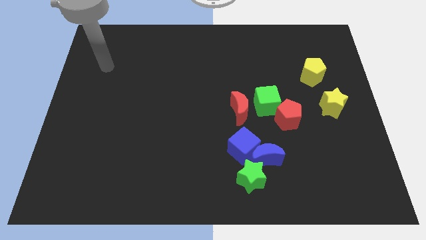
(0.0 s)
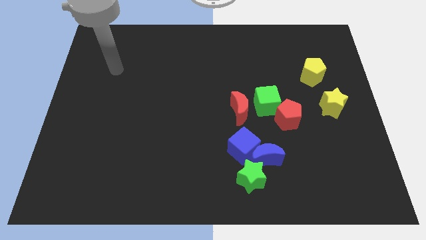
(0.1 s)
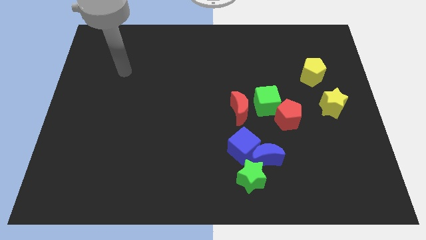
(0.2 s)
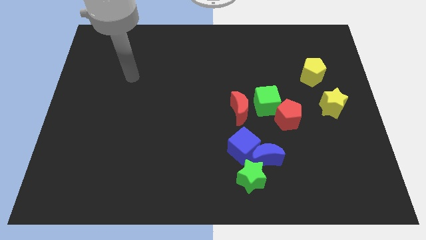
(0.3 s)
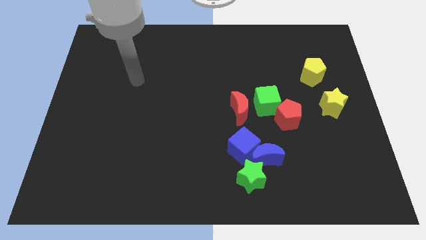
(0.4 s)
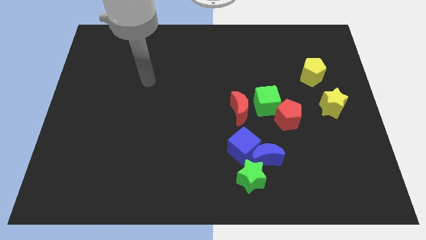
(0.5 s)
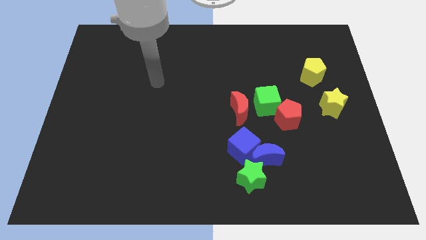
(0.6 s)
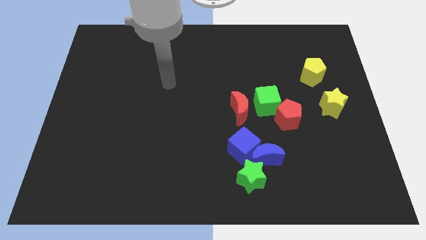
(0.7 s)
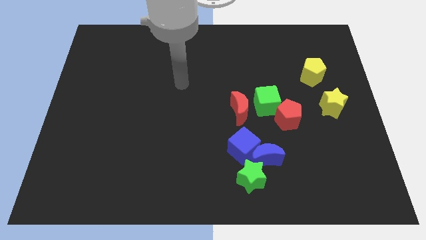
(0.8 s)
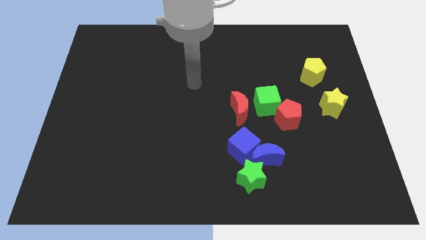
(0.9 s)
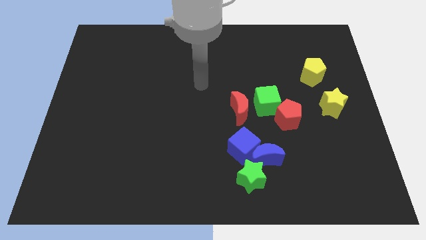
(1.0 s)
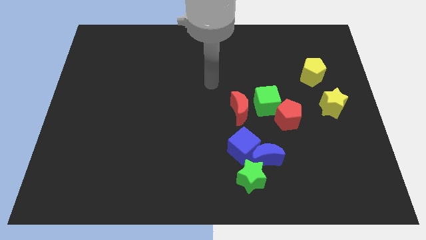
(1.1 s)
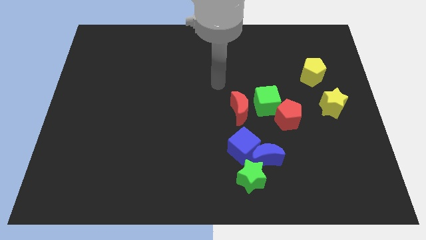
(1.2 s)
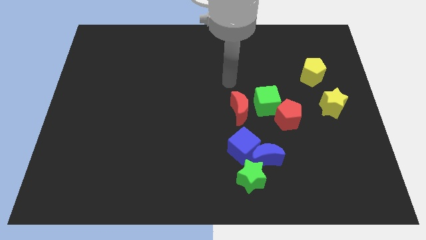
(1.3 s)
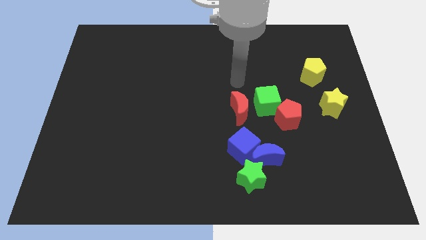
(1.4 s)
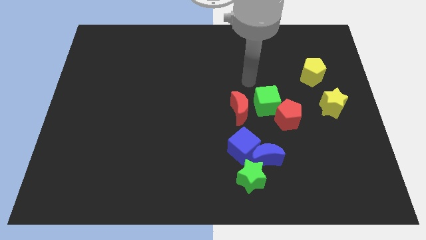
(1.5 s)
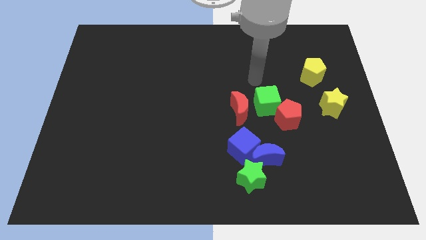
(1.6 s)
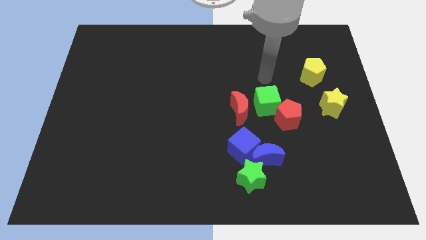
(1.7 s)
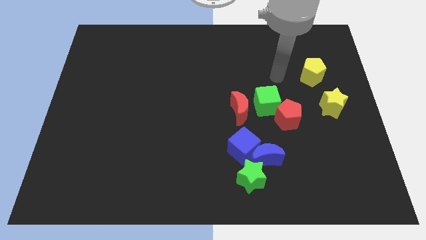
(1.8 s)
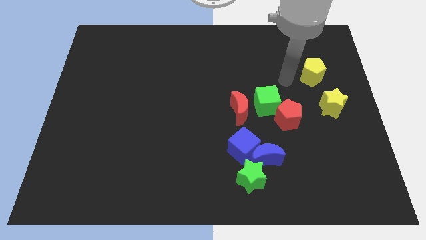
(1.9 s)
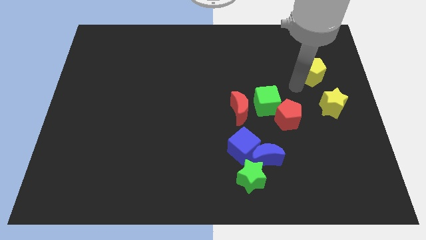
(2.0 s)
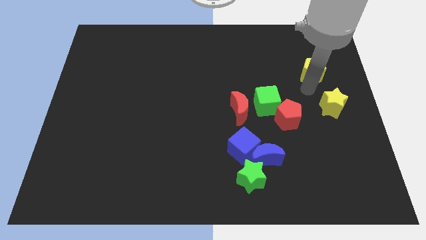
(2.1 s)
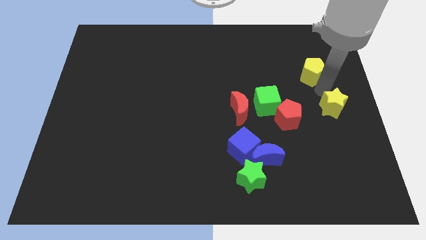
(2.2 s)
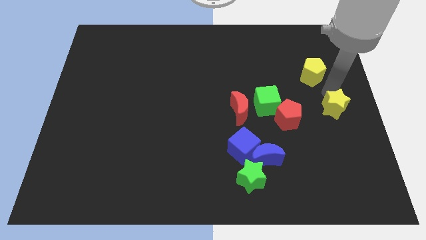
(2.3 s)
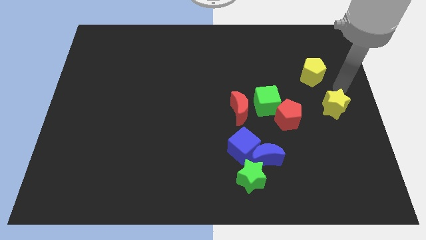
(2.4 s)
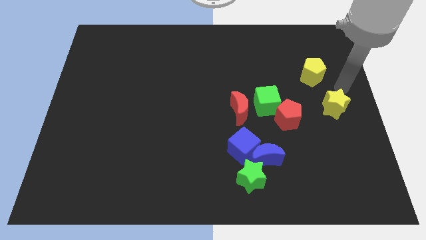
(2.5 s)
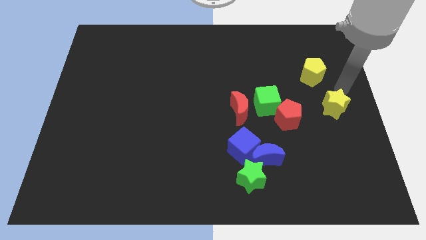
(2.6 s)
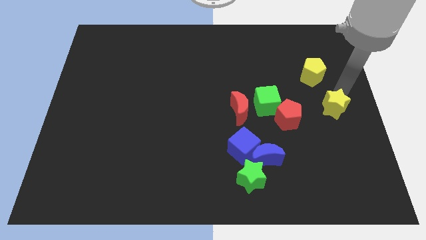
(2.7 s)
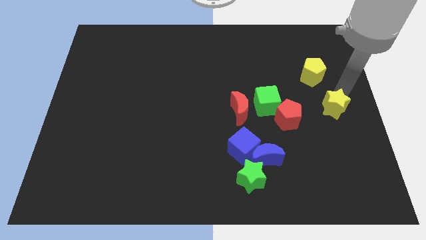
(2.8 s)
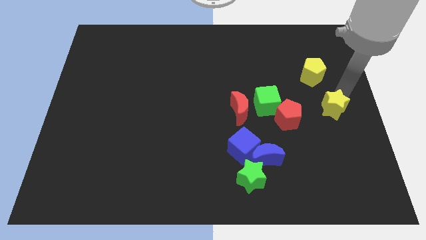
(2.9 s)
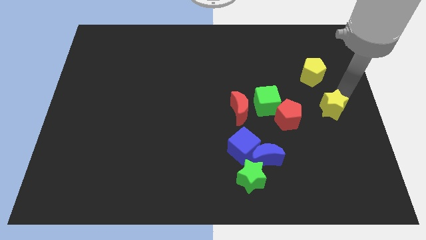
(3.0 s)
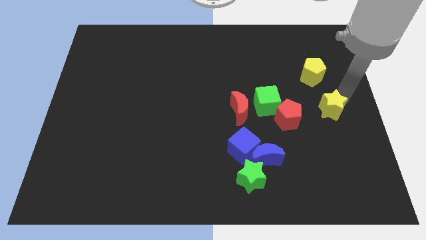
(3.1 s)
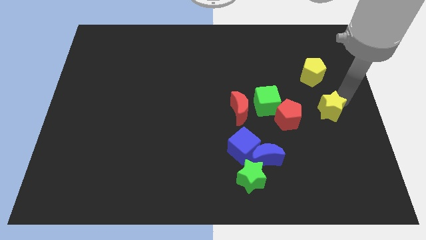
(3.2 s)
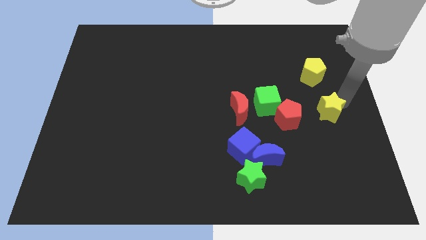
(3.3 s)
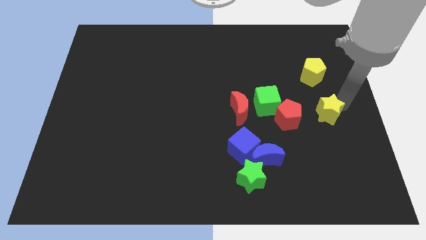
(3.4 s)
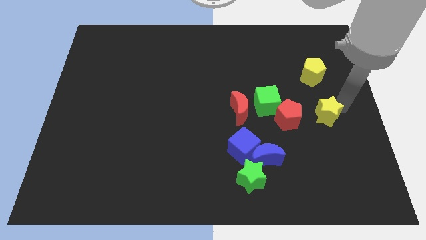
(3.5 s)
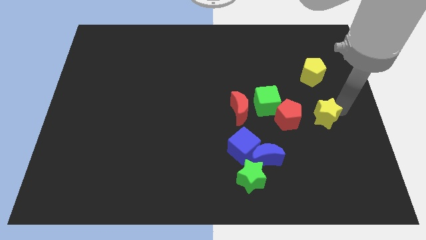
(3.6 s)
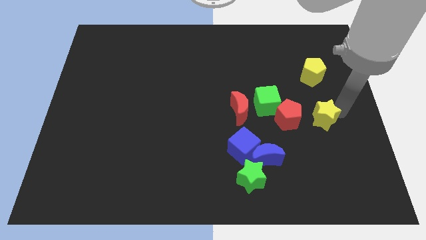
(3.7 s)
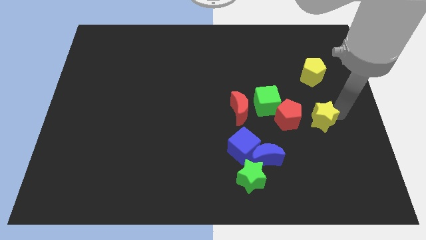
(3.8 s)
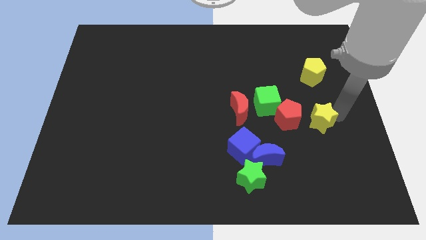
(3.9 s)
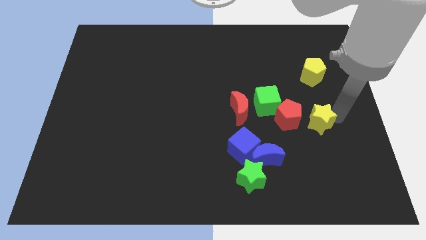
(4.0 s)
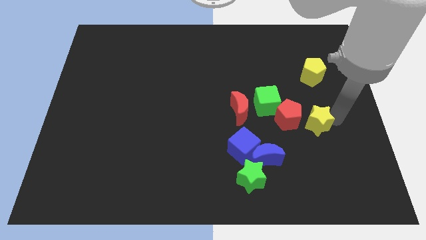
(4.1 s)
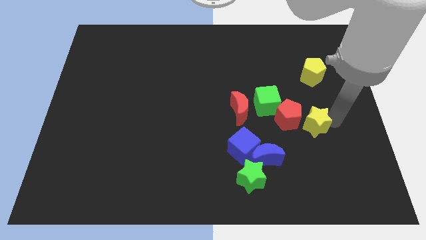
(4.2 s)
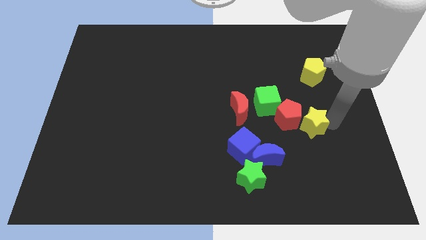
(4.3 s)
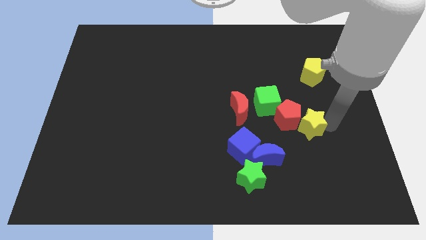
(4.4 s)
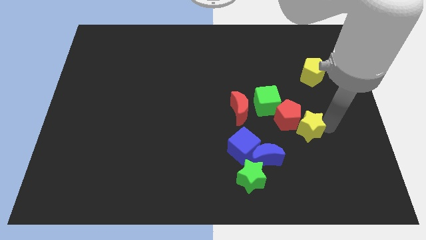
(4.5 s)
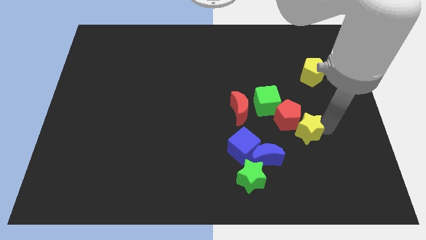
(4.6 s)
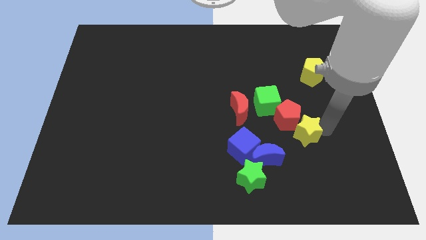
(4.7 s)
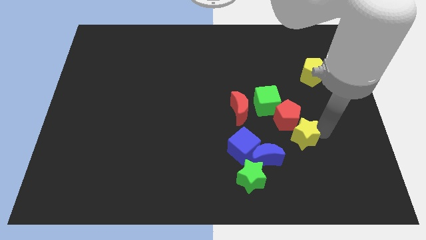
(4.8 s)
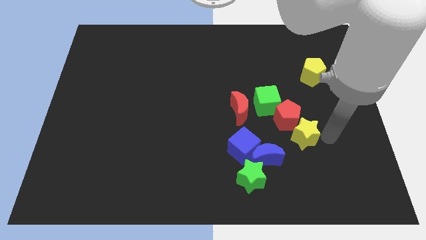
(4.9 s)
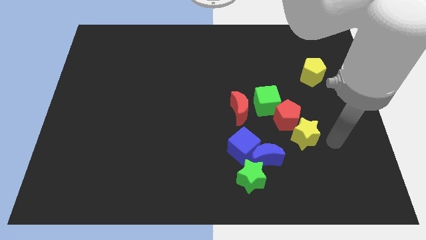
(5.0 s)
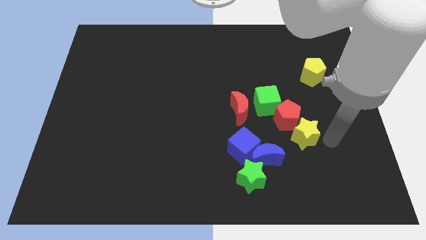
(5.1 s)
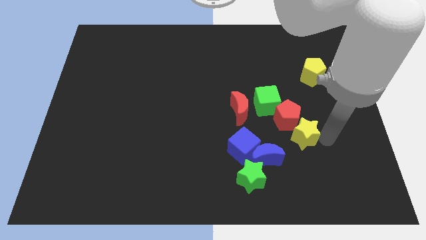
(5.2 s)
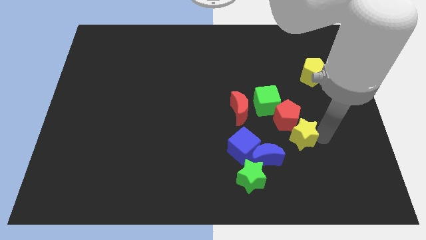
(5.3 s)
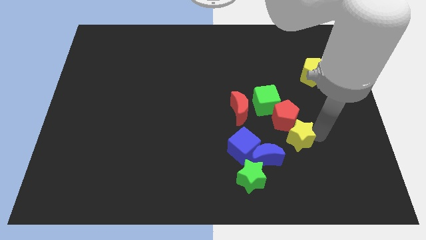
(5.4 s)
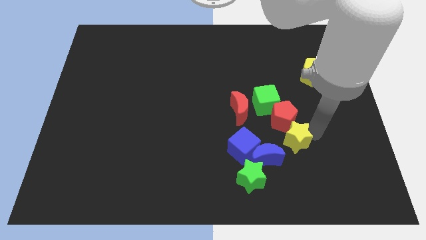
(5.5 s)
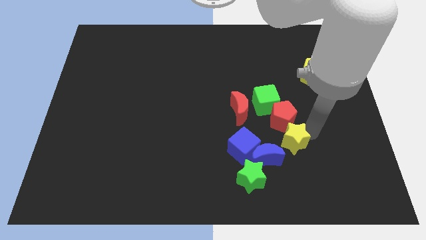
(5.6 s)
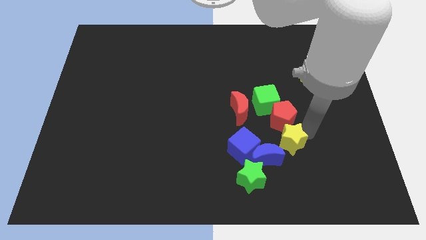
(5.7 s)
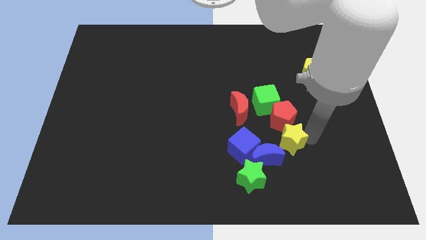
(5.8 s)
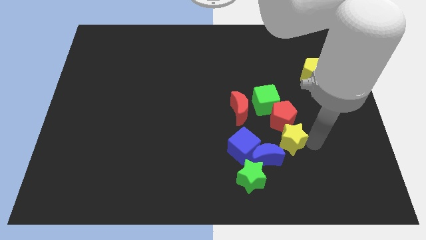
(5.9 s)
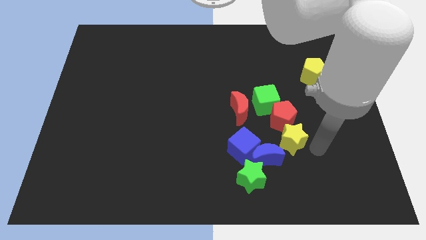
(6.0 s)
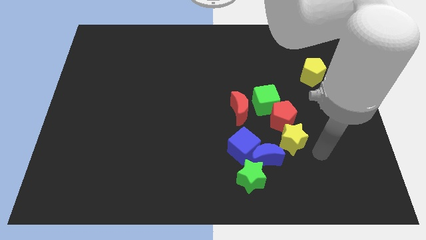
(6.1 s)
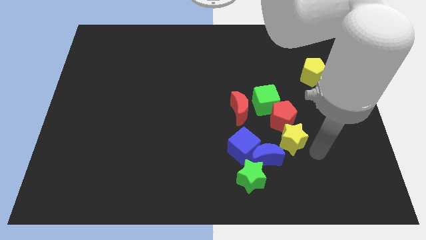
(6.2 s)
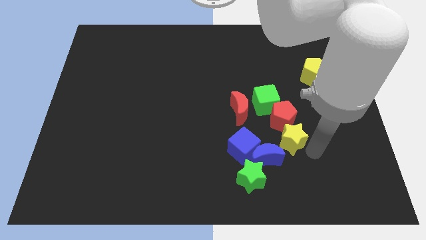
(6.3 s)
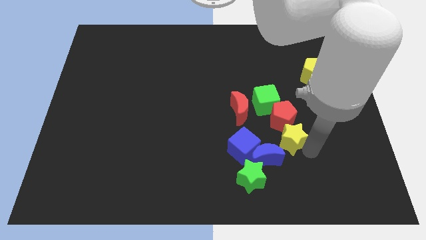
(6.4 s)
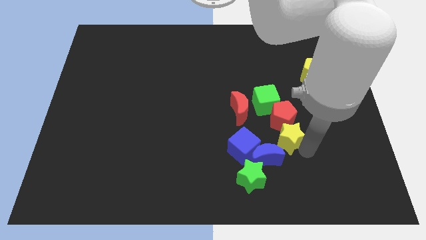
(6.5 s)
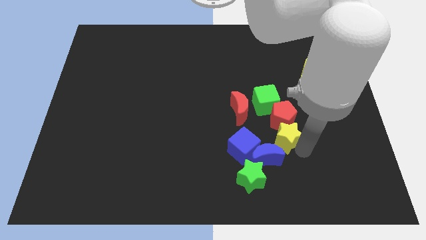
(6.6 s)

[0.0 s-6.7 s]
put the yellow star diagonally down and to the right of the red moon

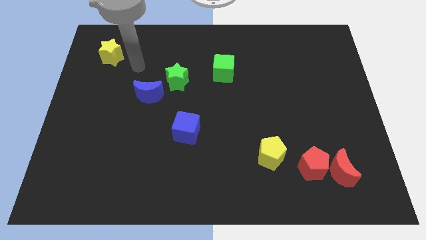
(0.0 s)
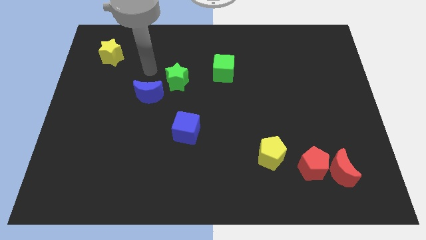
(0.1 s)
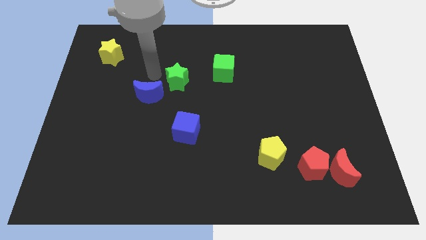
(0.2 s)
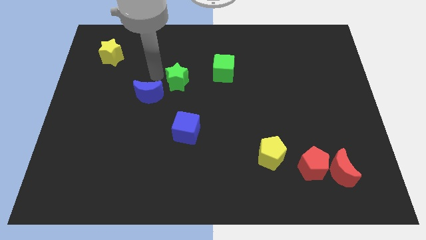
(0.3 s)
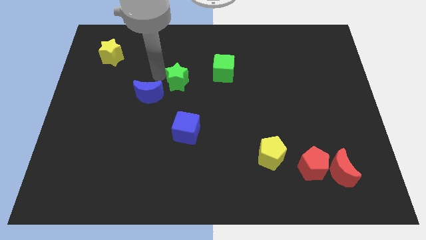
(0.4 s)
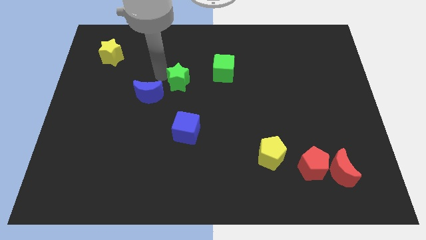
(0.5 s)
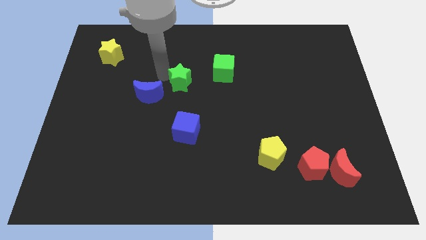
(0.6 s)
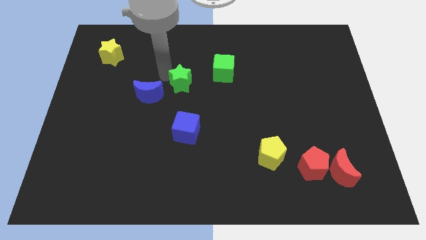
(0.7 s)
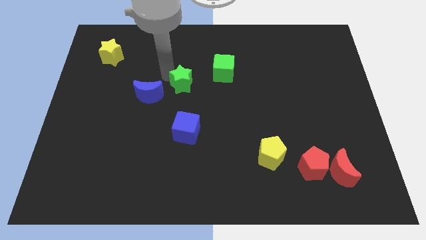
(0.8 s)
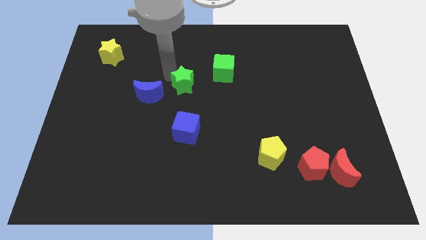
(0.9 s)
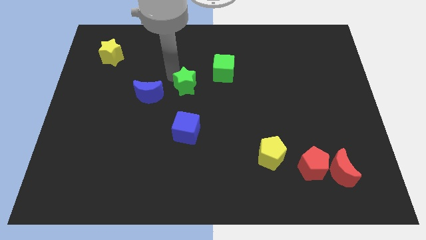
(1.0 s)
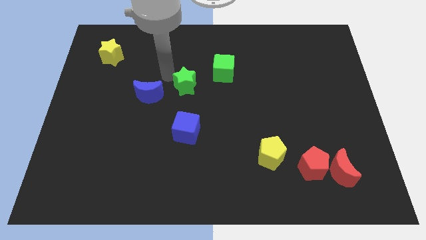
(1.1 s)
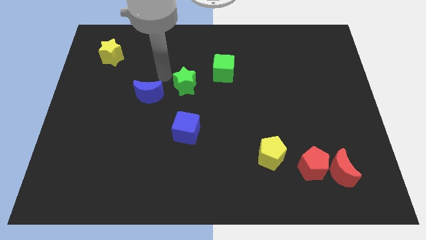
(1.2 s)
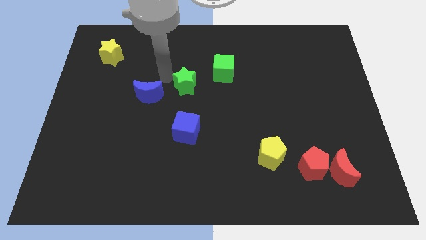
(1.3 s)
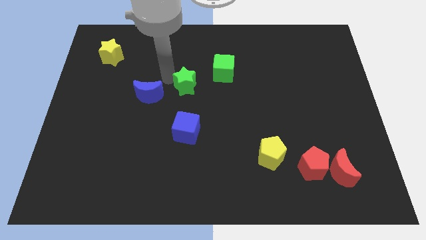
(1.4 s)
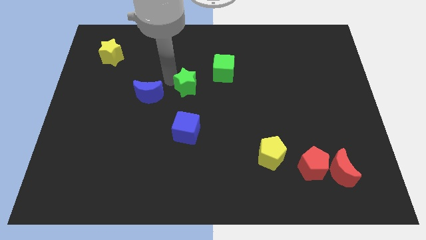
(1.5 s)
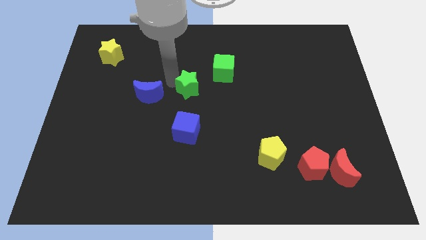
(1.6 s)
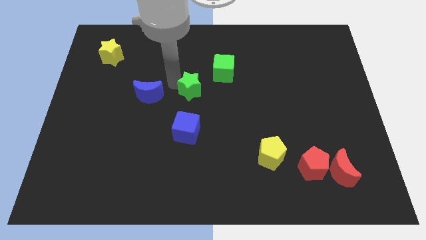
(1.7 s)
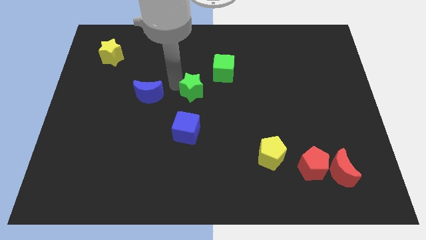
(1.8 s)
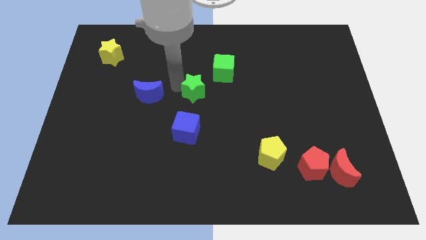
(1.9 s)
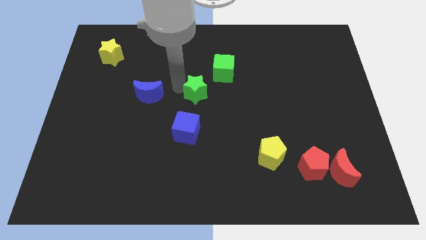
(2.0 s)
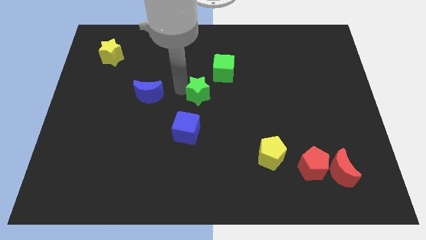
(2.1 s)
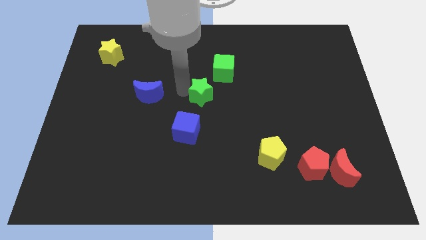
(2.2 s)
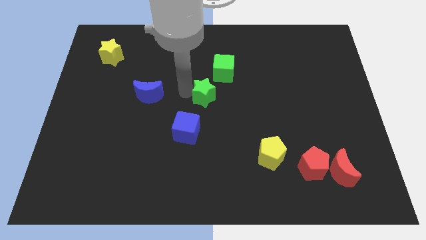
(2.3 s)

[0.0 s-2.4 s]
slide the green star to the bottom side of the green cube
